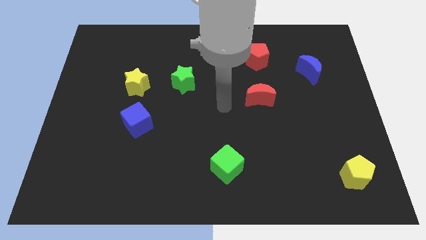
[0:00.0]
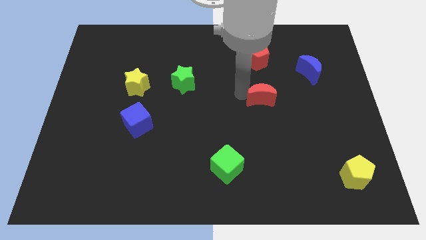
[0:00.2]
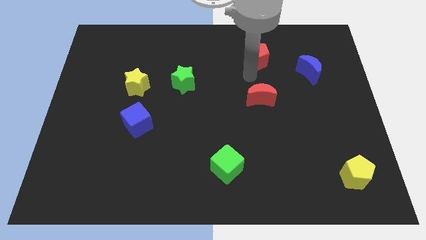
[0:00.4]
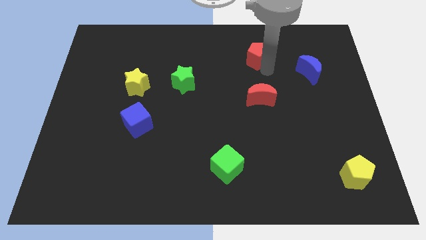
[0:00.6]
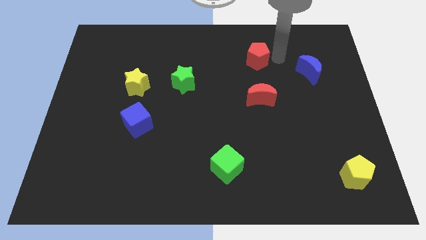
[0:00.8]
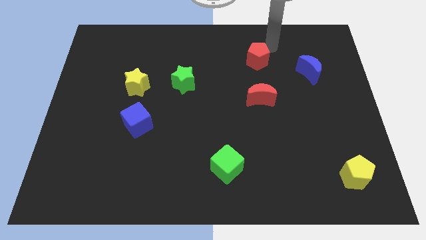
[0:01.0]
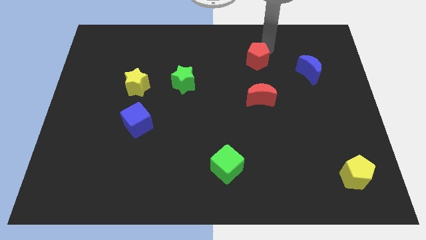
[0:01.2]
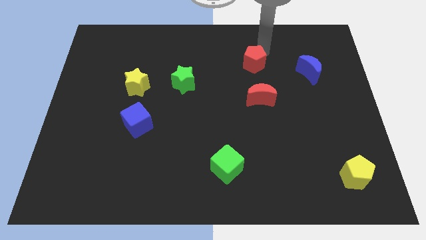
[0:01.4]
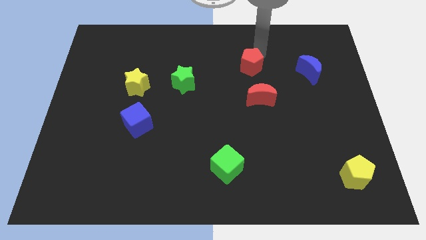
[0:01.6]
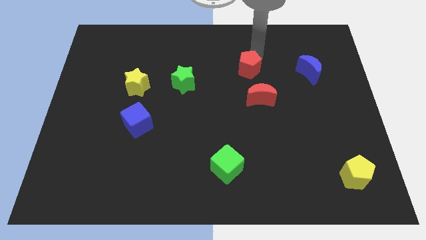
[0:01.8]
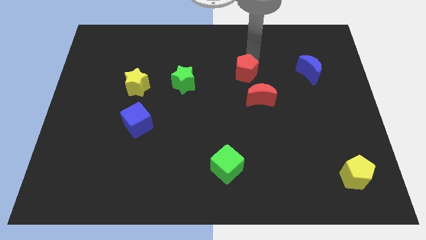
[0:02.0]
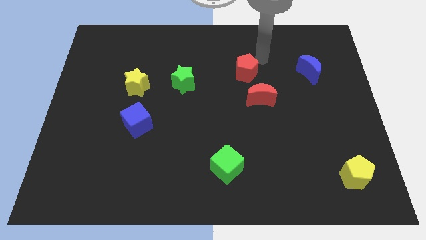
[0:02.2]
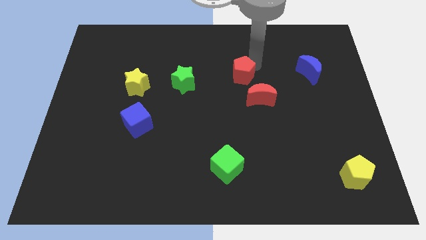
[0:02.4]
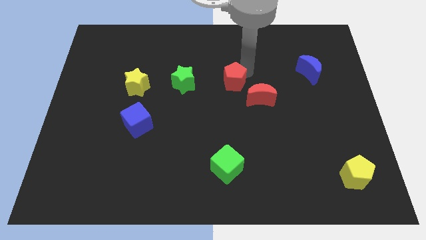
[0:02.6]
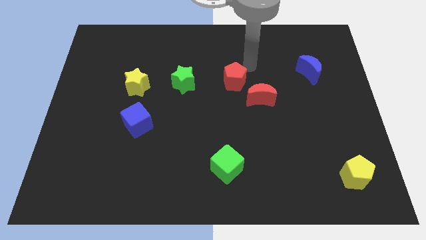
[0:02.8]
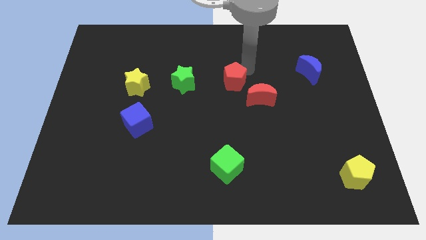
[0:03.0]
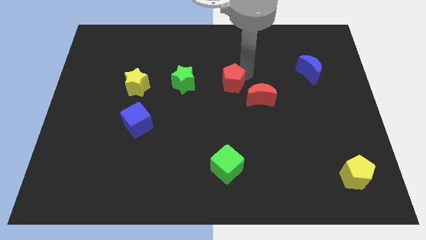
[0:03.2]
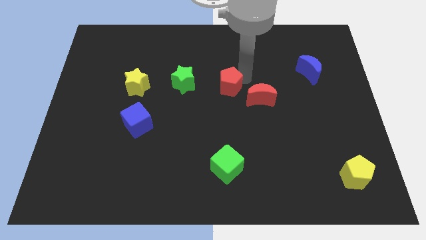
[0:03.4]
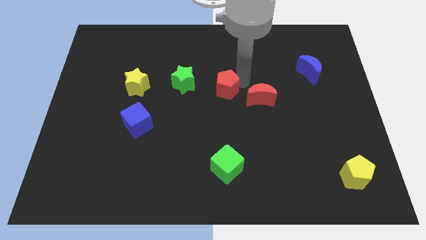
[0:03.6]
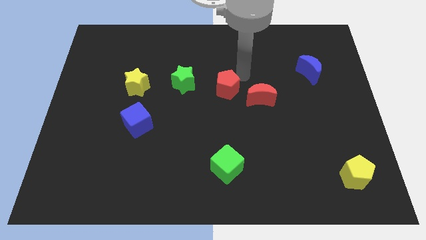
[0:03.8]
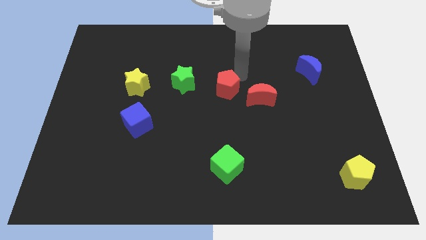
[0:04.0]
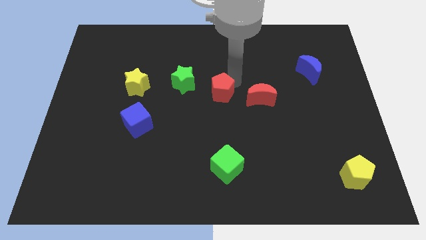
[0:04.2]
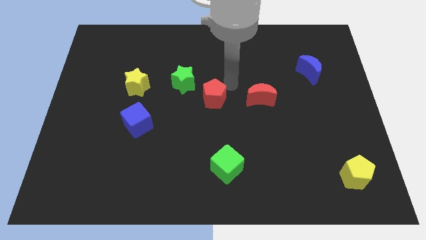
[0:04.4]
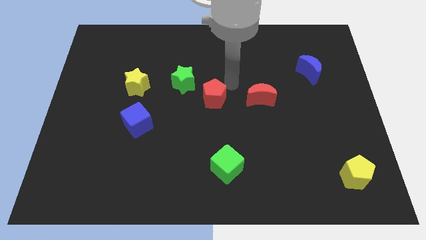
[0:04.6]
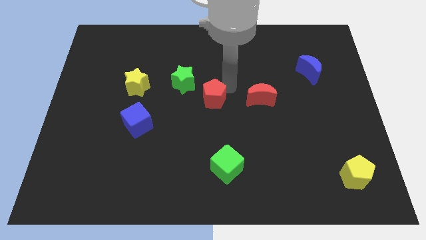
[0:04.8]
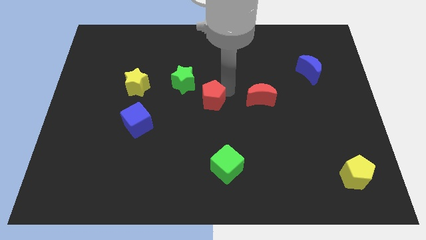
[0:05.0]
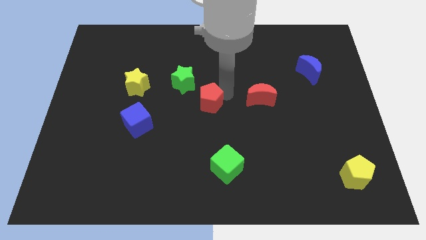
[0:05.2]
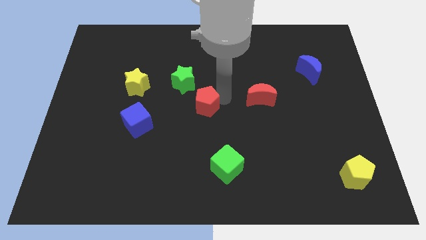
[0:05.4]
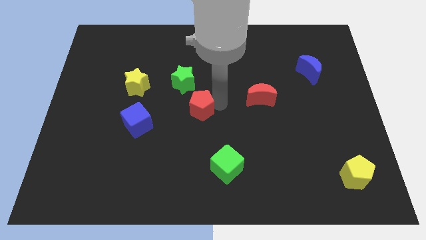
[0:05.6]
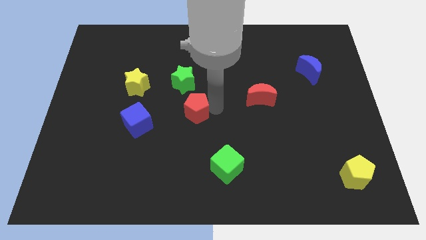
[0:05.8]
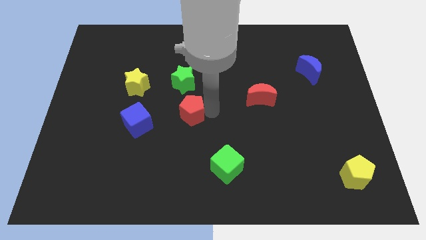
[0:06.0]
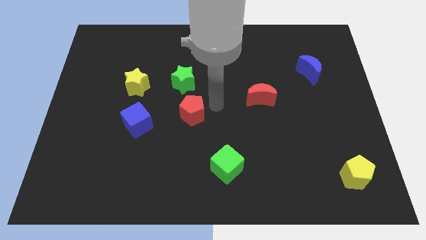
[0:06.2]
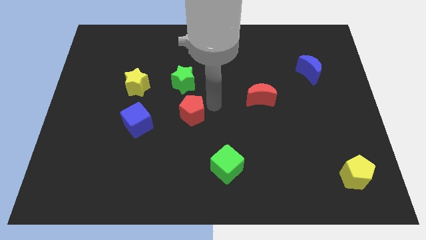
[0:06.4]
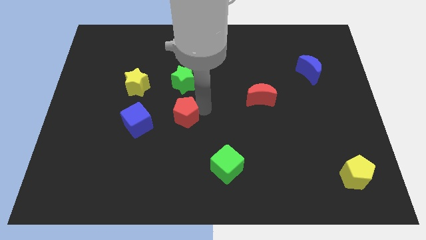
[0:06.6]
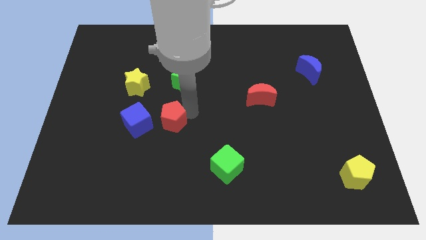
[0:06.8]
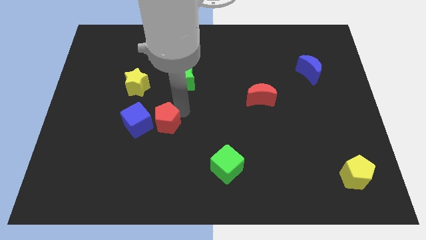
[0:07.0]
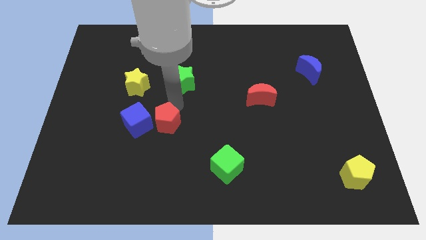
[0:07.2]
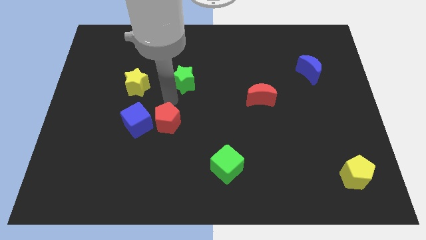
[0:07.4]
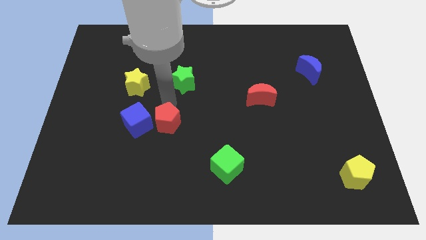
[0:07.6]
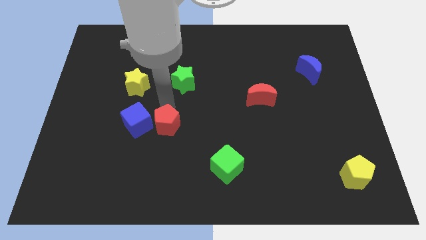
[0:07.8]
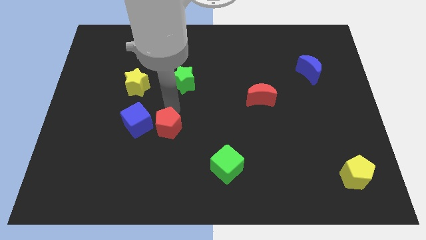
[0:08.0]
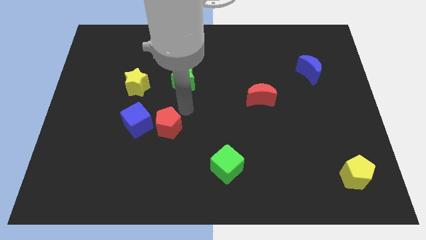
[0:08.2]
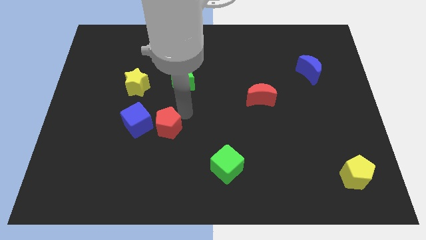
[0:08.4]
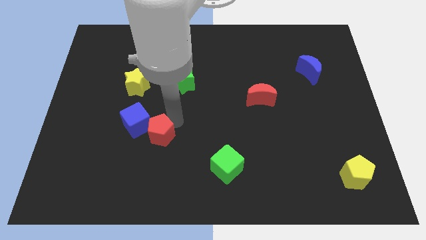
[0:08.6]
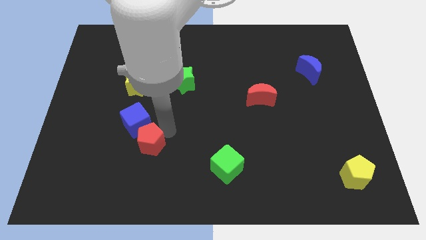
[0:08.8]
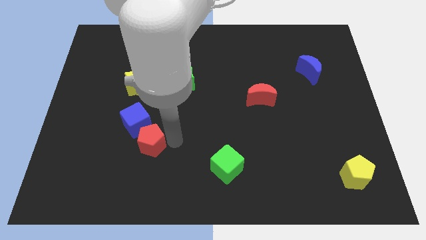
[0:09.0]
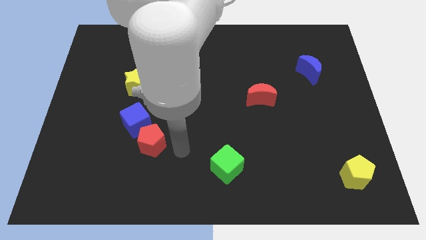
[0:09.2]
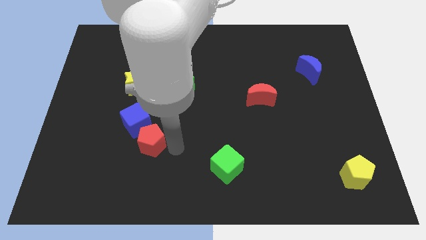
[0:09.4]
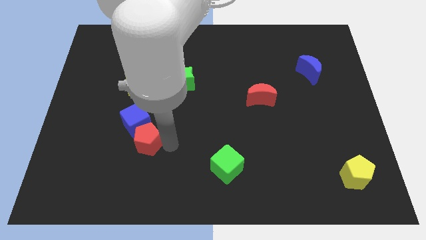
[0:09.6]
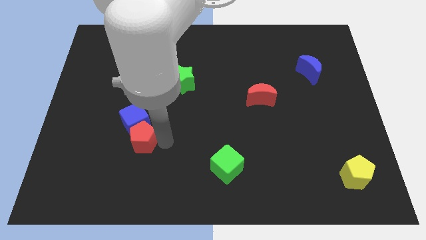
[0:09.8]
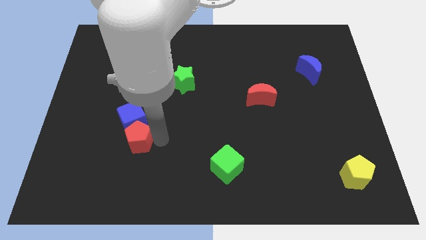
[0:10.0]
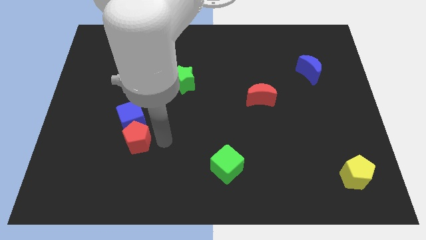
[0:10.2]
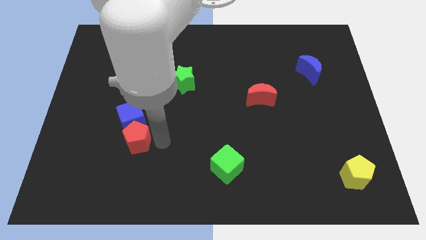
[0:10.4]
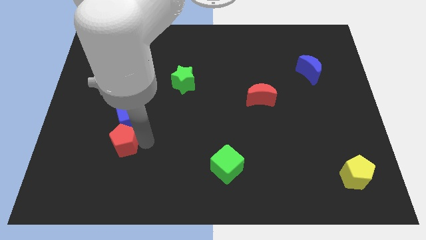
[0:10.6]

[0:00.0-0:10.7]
move the red pentagon to the bottom left side of the blue cube

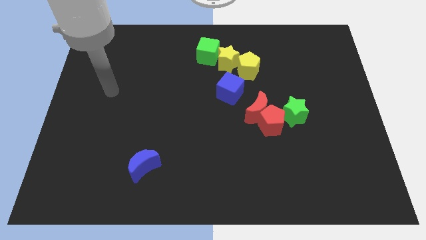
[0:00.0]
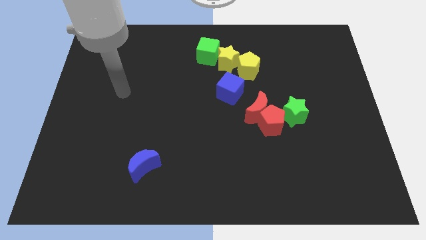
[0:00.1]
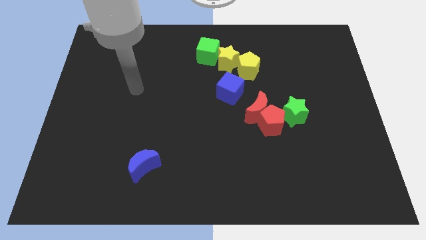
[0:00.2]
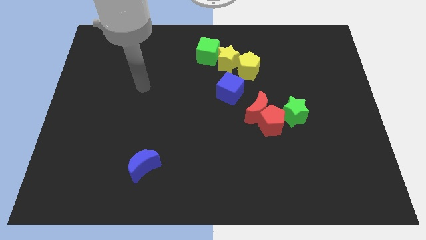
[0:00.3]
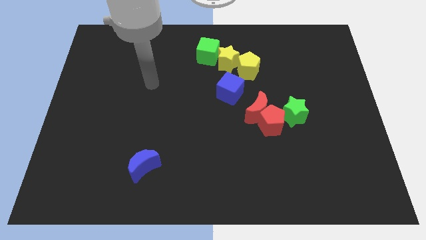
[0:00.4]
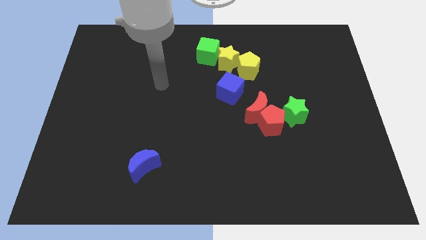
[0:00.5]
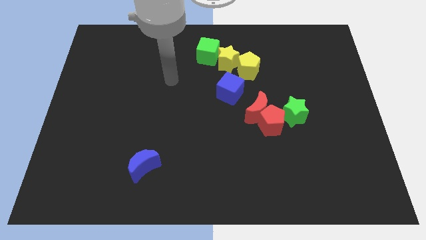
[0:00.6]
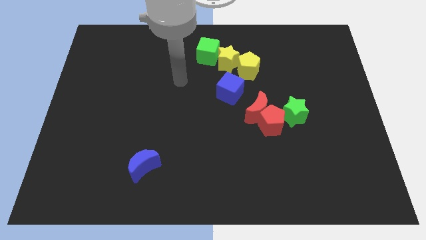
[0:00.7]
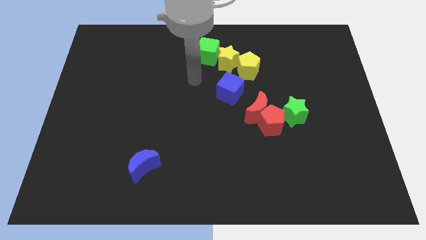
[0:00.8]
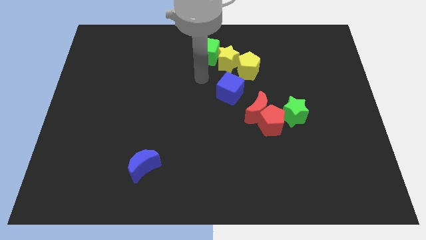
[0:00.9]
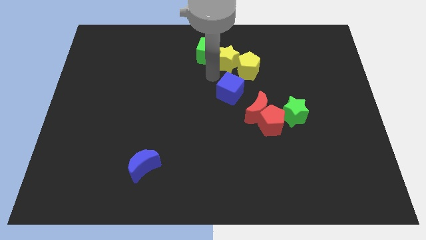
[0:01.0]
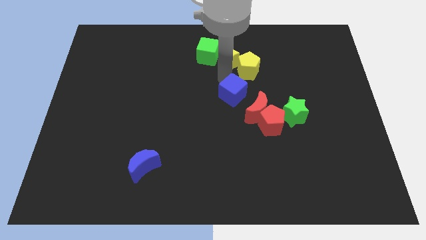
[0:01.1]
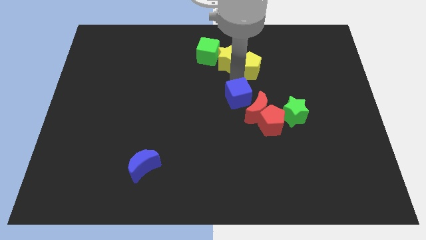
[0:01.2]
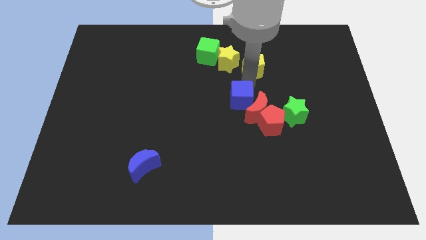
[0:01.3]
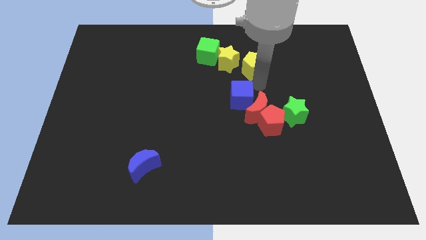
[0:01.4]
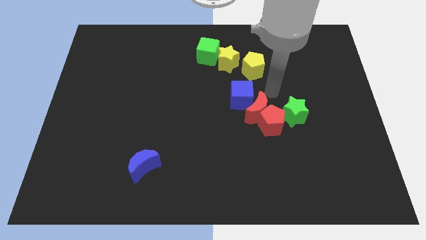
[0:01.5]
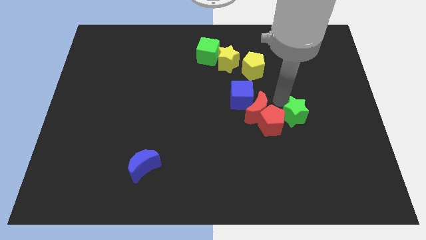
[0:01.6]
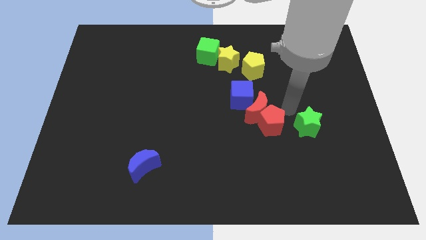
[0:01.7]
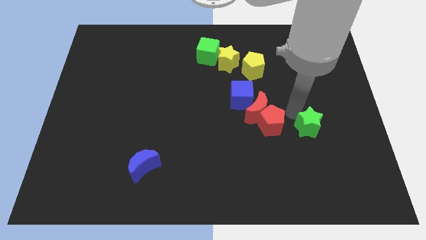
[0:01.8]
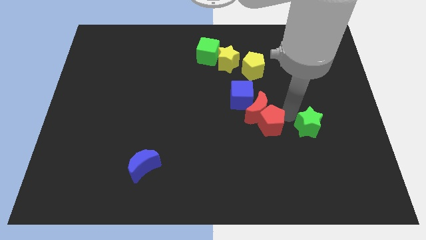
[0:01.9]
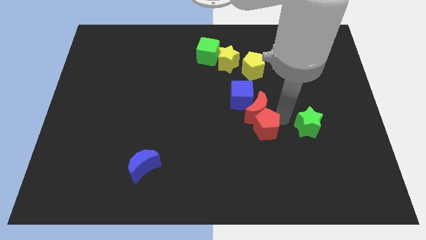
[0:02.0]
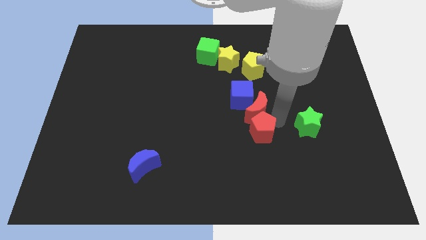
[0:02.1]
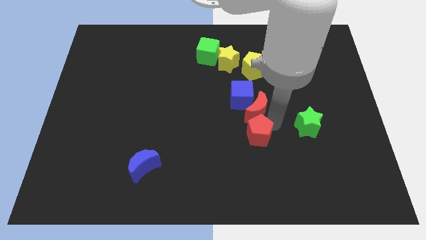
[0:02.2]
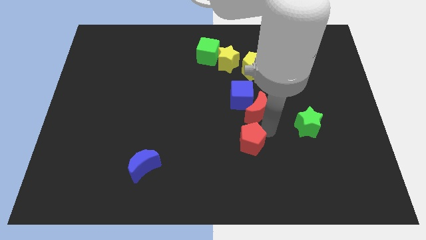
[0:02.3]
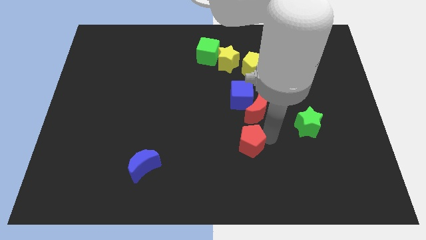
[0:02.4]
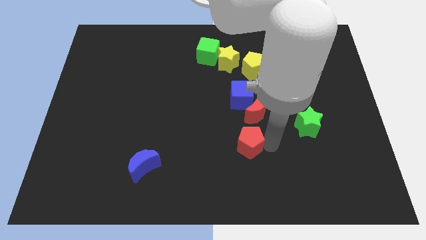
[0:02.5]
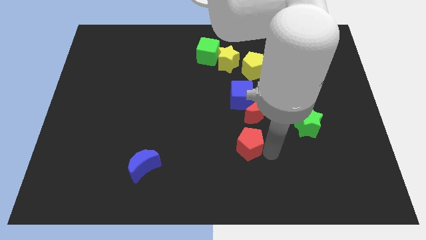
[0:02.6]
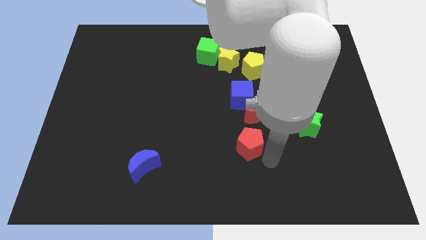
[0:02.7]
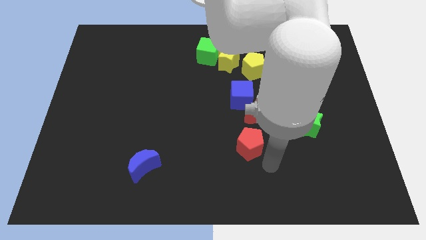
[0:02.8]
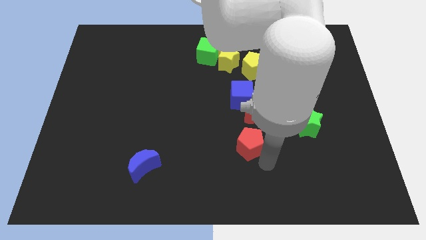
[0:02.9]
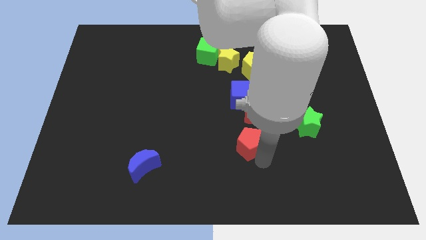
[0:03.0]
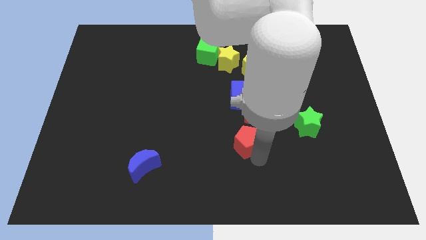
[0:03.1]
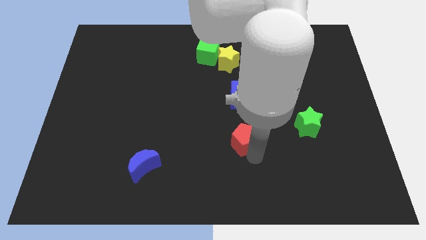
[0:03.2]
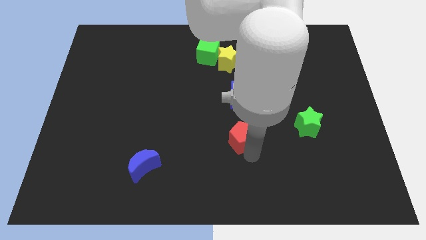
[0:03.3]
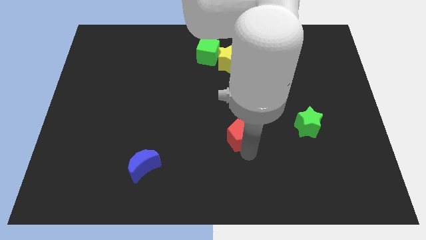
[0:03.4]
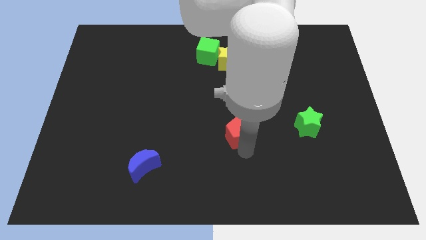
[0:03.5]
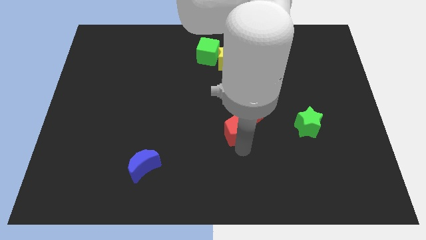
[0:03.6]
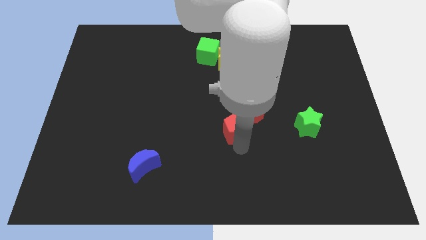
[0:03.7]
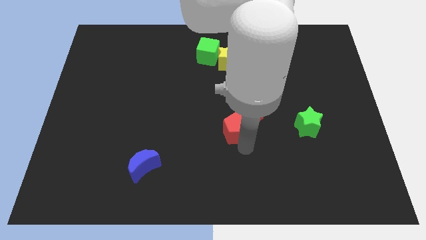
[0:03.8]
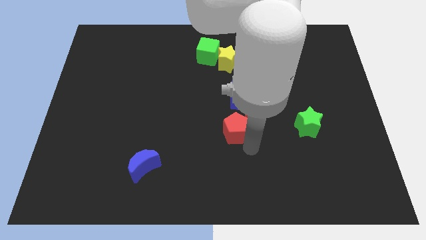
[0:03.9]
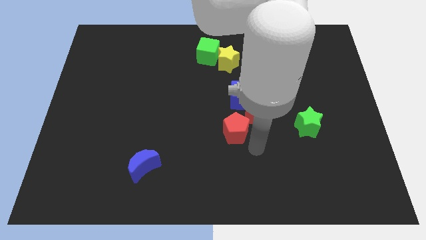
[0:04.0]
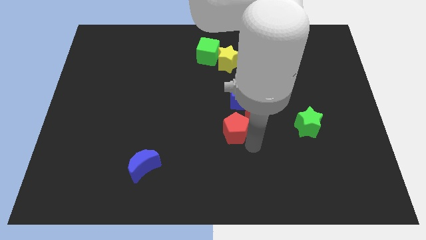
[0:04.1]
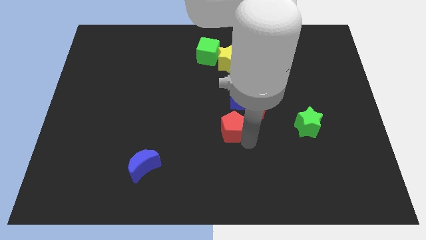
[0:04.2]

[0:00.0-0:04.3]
push the red pentagon to the bottom left side of the blue cube
